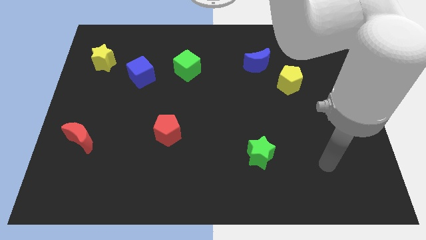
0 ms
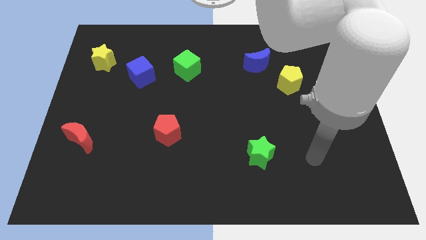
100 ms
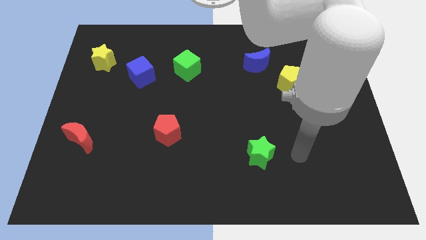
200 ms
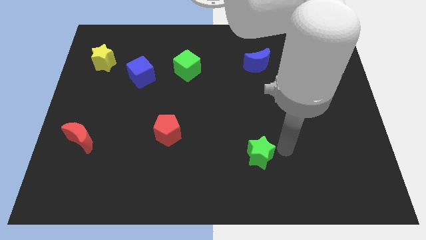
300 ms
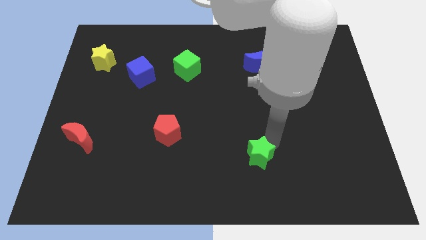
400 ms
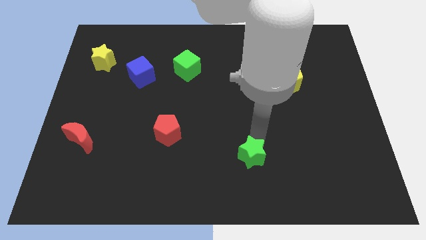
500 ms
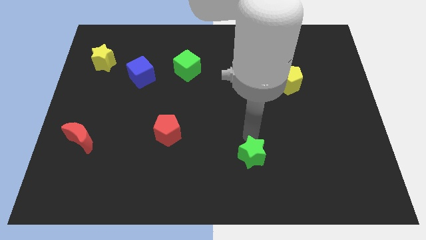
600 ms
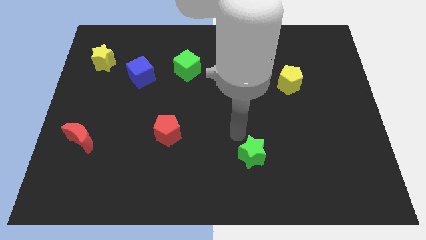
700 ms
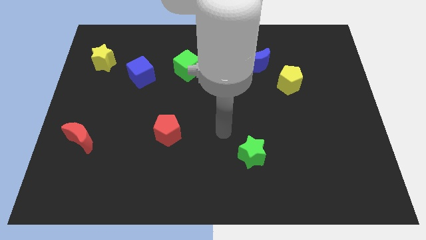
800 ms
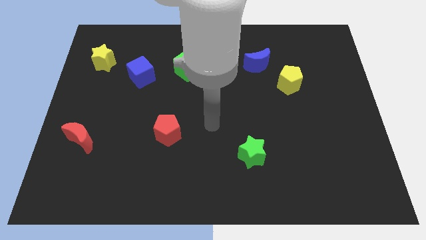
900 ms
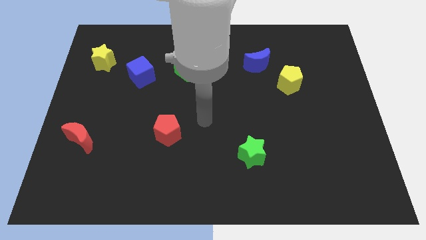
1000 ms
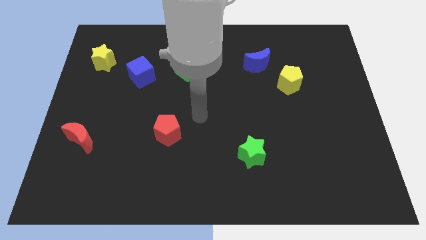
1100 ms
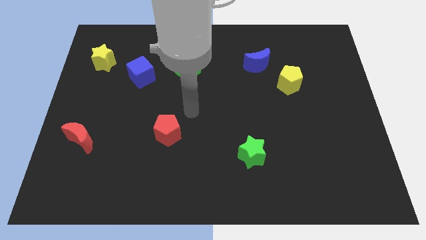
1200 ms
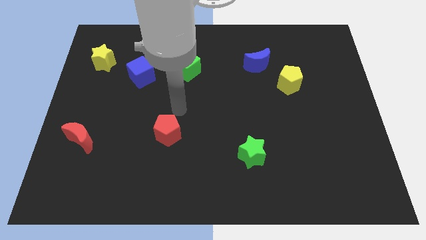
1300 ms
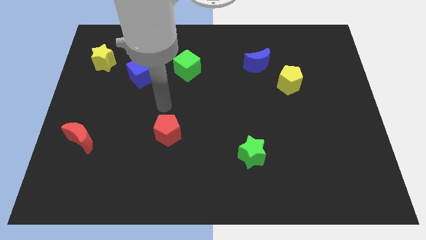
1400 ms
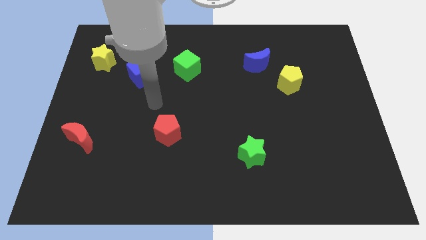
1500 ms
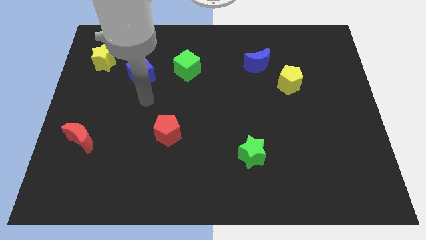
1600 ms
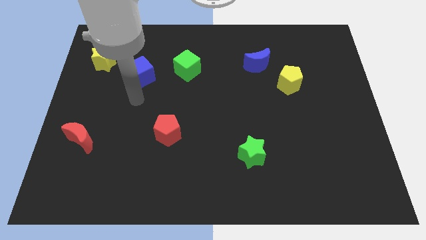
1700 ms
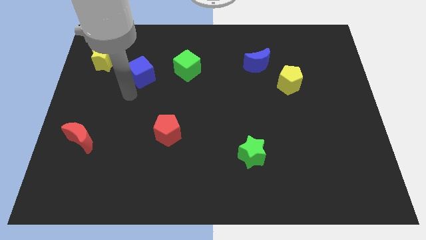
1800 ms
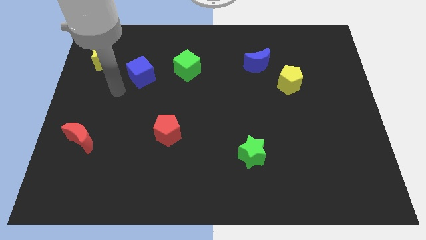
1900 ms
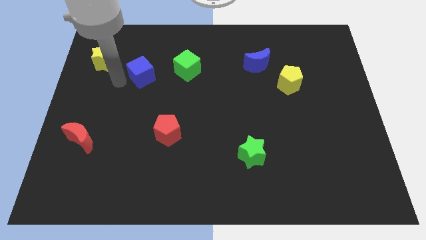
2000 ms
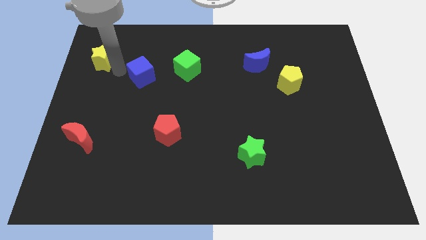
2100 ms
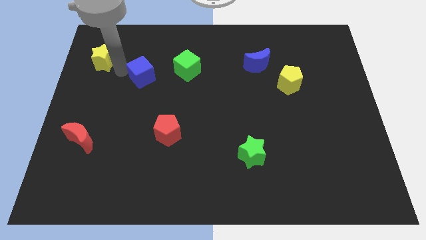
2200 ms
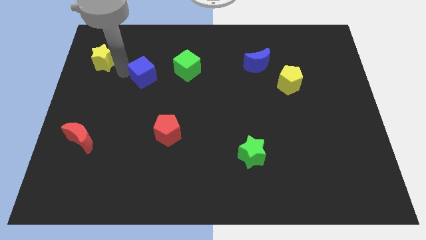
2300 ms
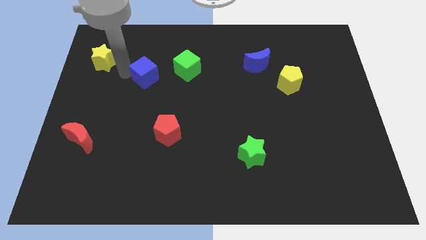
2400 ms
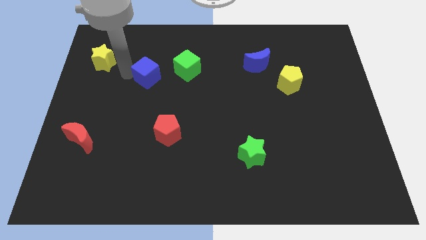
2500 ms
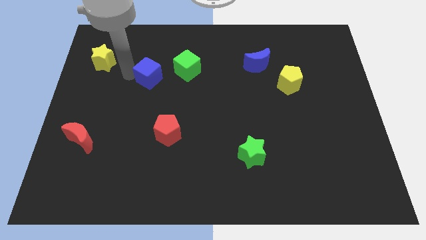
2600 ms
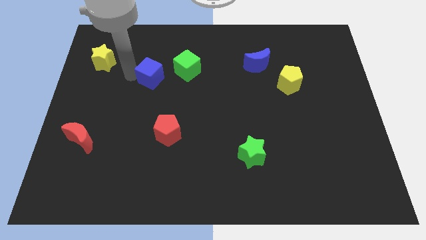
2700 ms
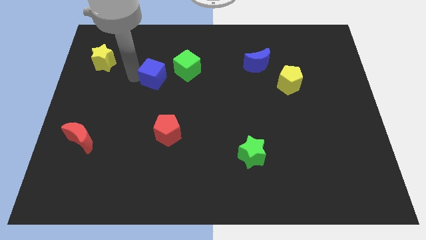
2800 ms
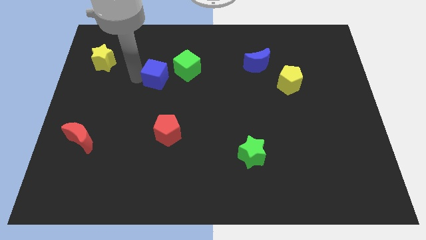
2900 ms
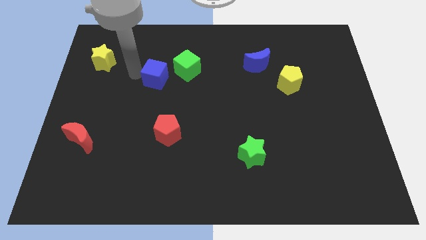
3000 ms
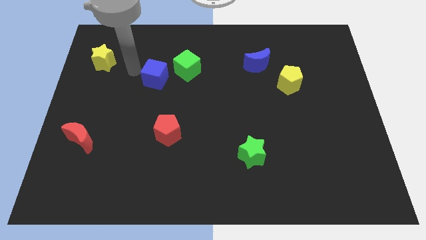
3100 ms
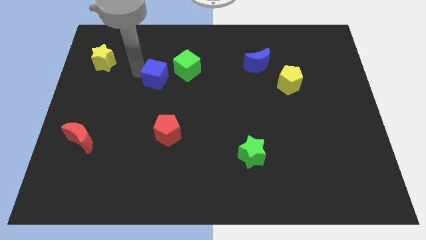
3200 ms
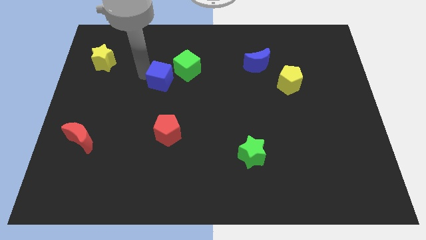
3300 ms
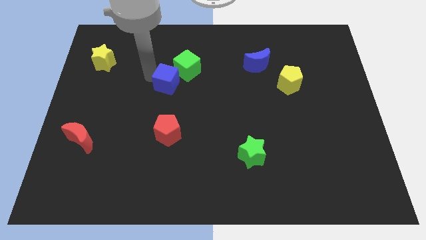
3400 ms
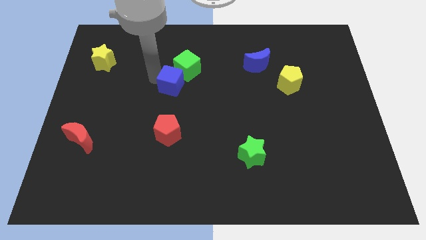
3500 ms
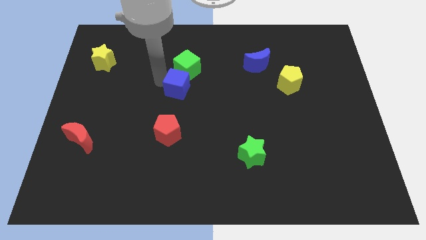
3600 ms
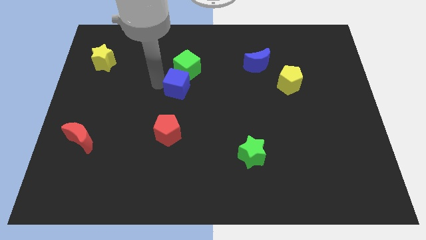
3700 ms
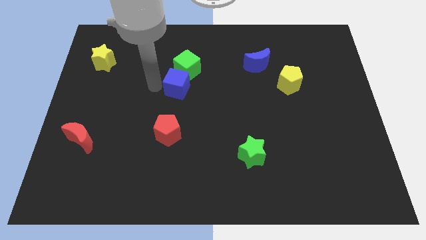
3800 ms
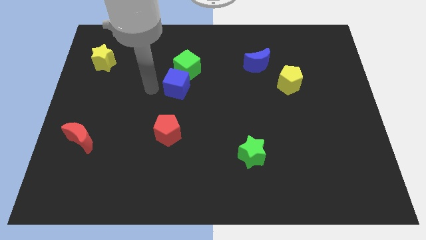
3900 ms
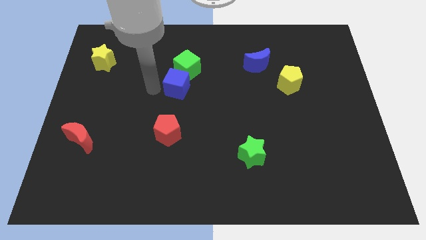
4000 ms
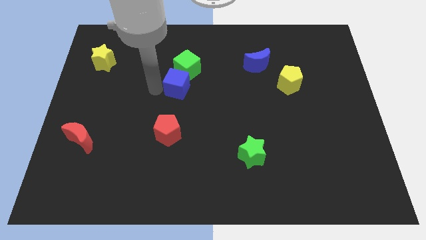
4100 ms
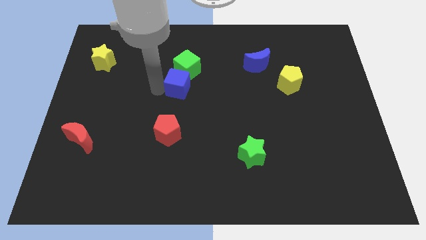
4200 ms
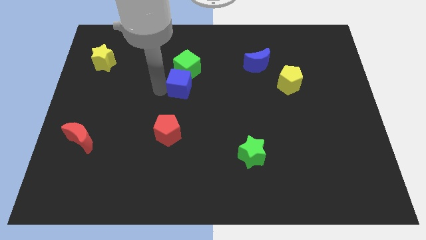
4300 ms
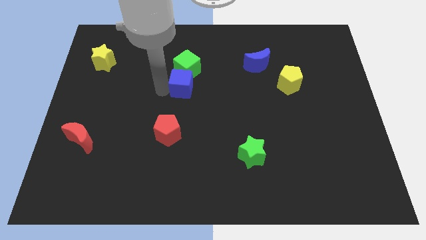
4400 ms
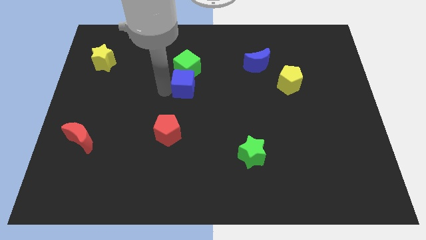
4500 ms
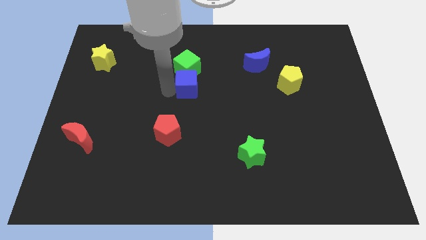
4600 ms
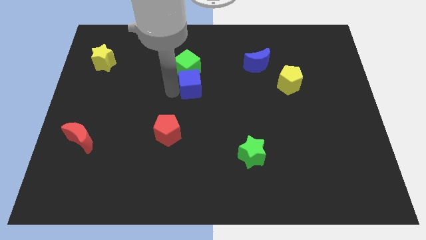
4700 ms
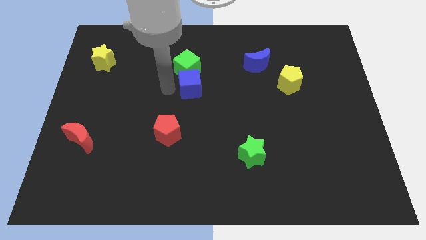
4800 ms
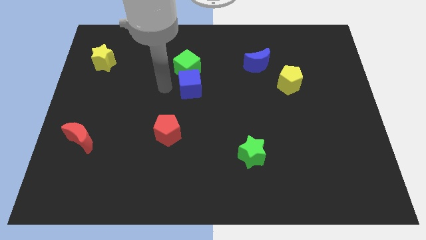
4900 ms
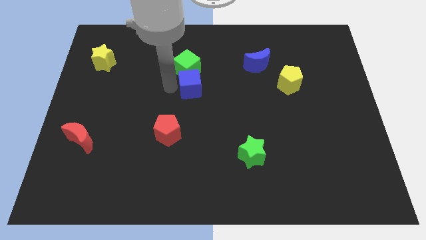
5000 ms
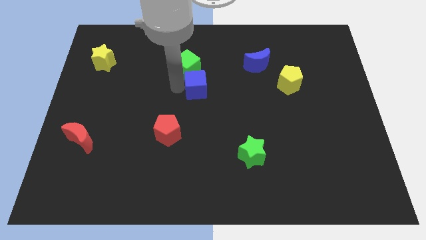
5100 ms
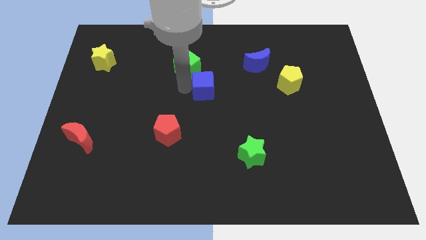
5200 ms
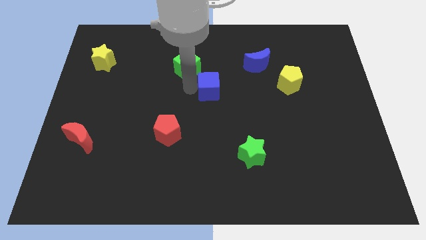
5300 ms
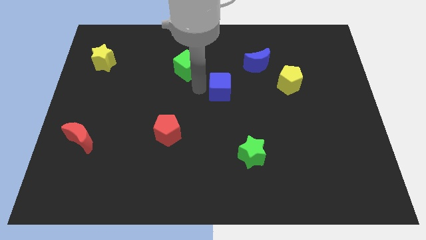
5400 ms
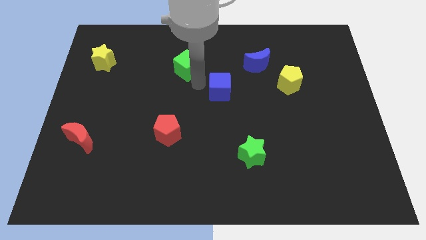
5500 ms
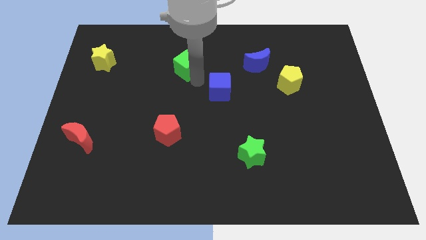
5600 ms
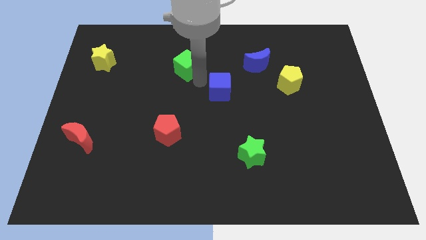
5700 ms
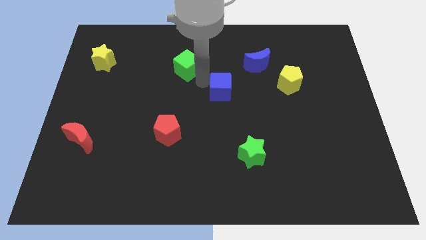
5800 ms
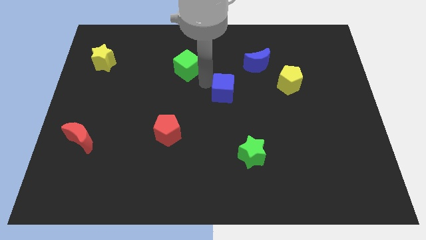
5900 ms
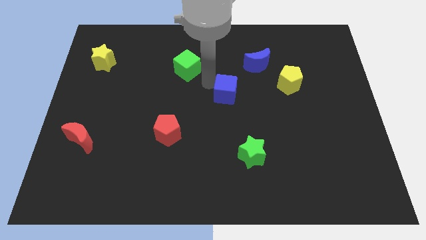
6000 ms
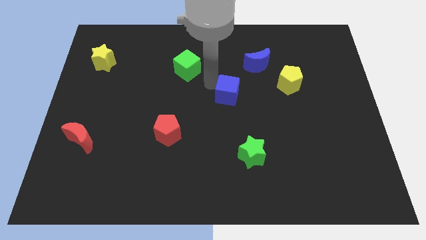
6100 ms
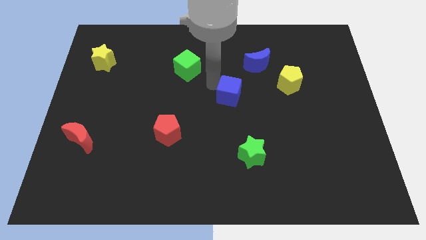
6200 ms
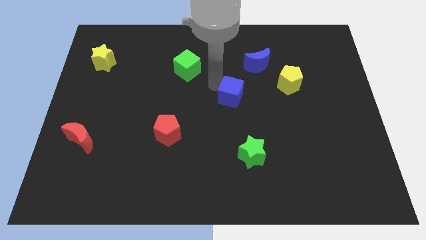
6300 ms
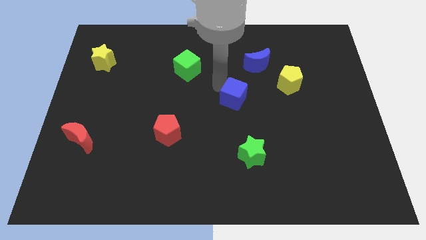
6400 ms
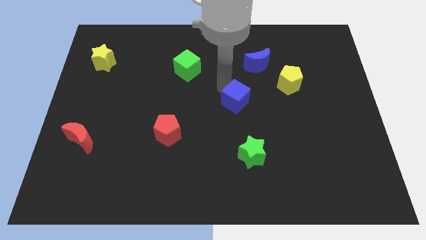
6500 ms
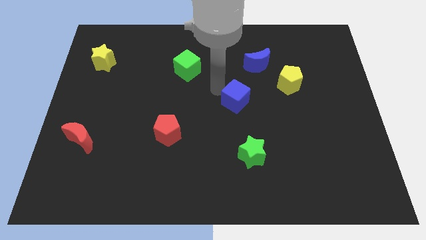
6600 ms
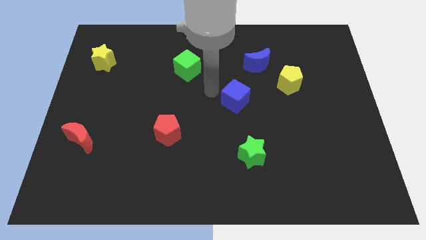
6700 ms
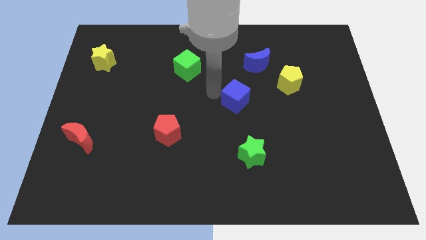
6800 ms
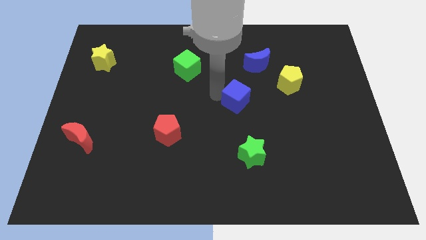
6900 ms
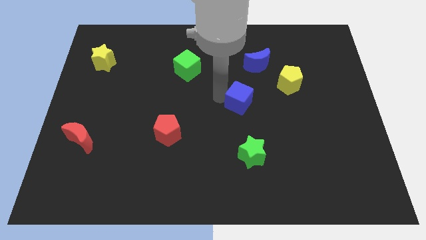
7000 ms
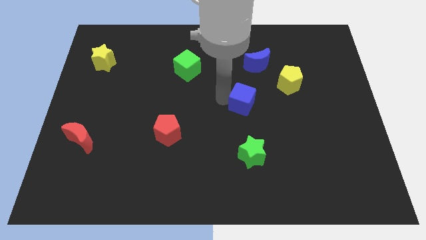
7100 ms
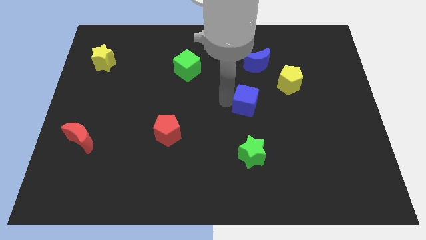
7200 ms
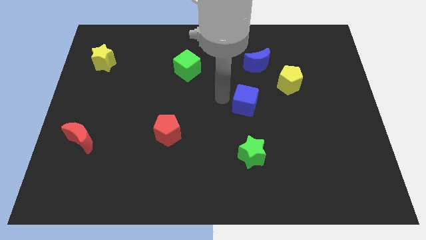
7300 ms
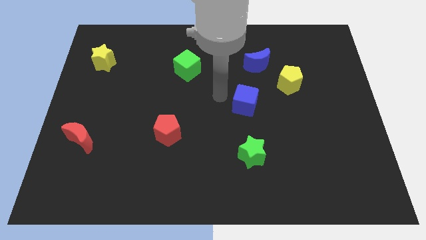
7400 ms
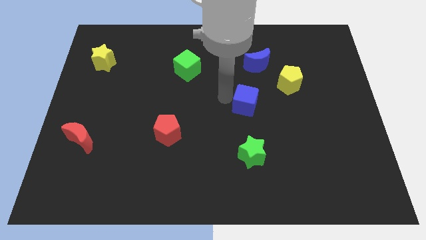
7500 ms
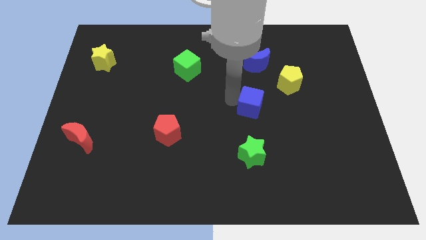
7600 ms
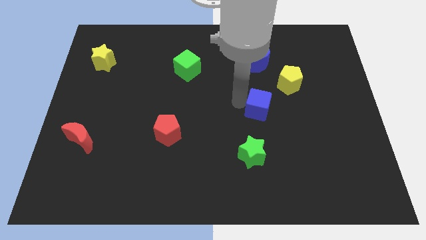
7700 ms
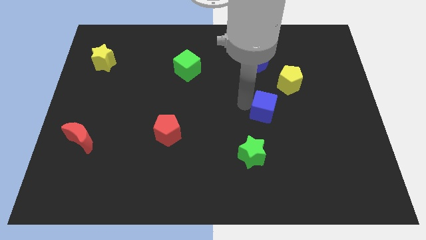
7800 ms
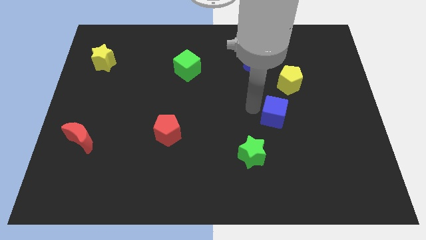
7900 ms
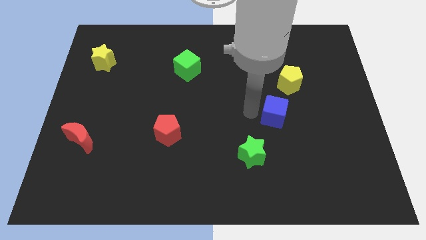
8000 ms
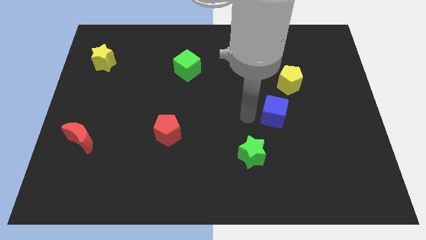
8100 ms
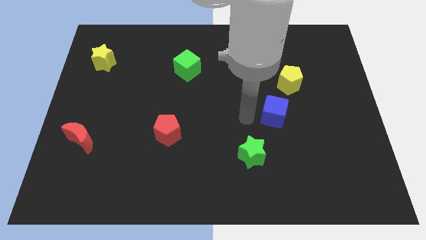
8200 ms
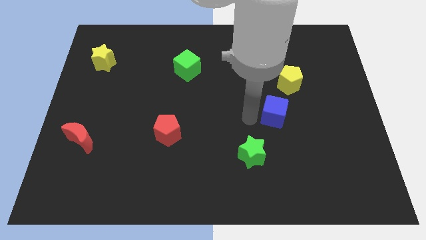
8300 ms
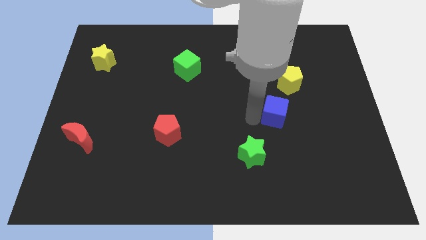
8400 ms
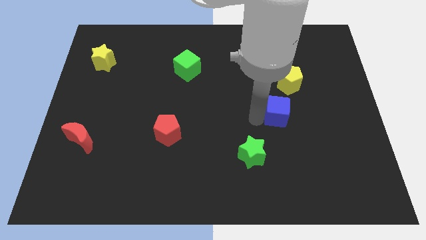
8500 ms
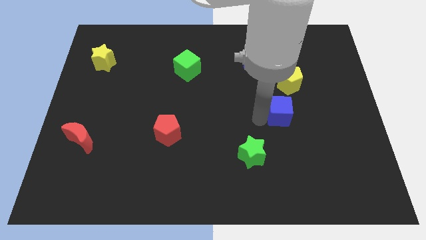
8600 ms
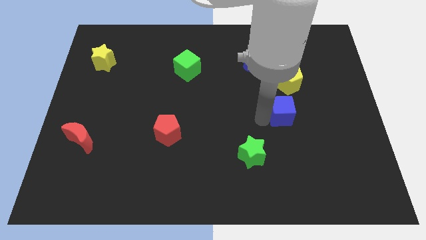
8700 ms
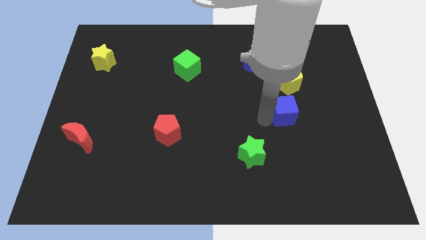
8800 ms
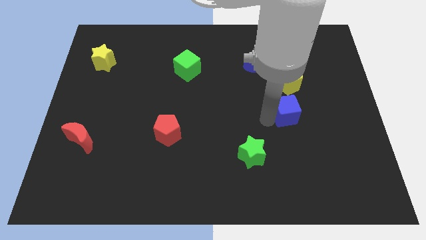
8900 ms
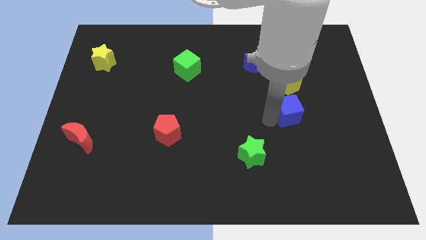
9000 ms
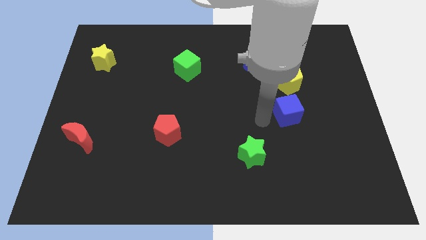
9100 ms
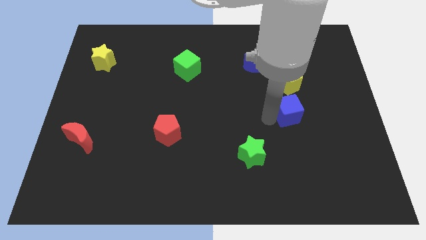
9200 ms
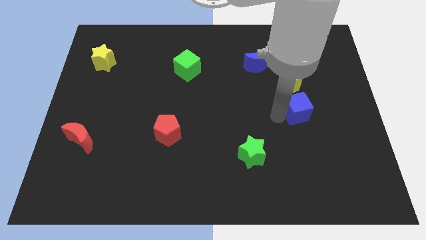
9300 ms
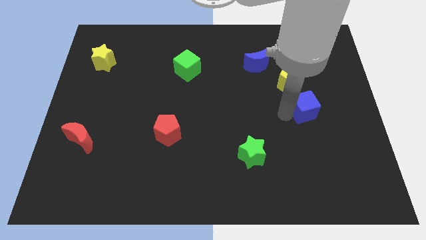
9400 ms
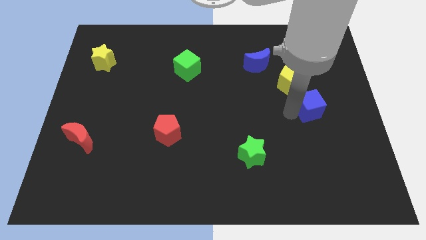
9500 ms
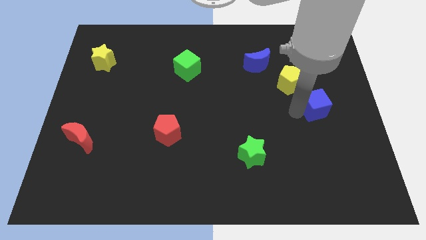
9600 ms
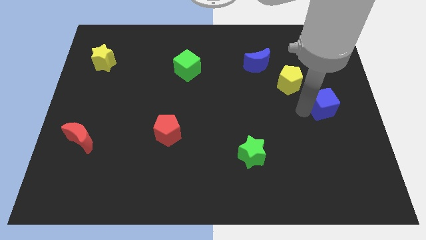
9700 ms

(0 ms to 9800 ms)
move the blue cube to the right side
